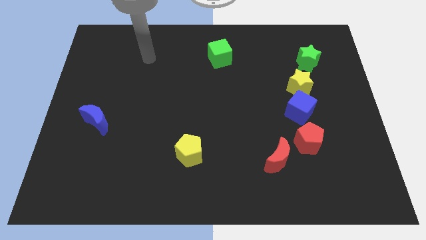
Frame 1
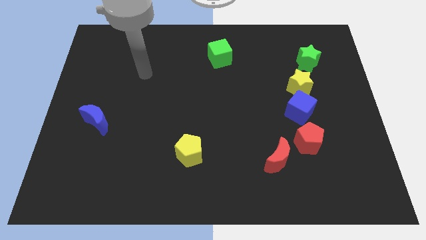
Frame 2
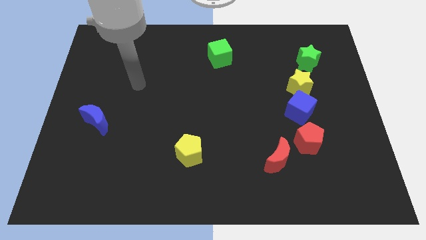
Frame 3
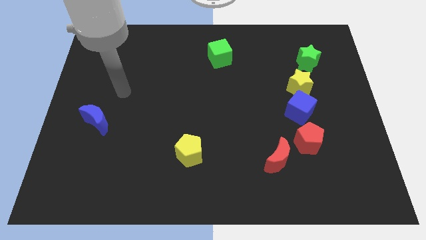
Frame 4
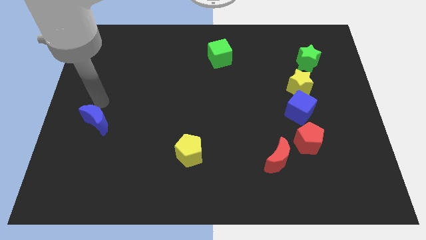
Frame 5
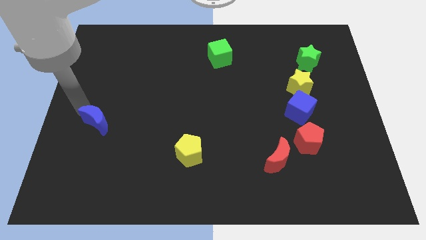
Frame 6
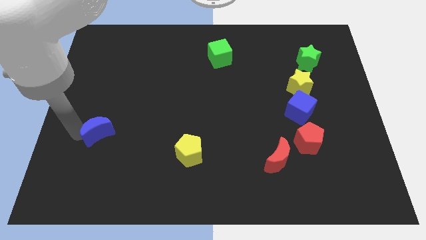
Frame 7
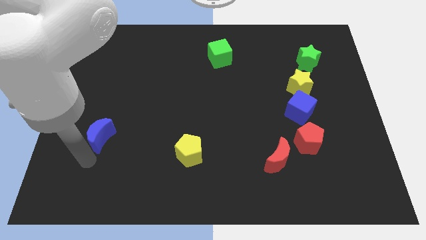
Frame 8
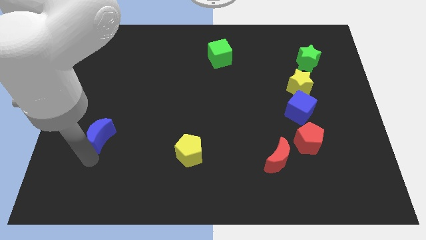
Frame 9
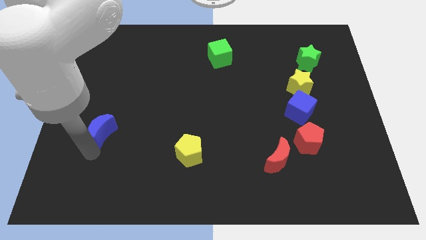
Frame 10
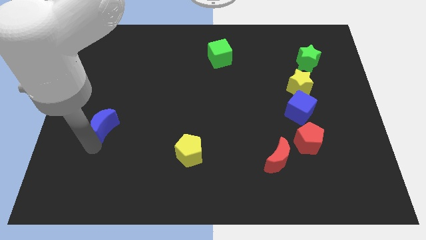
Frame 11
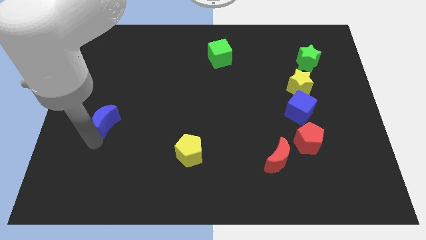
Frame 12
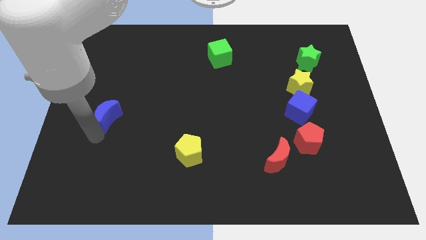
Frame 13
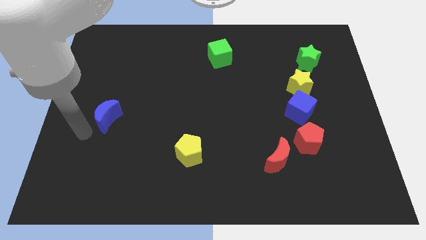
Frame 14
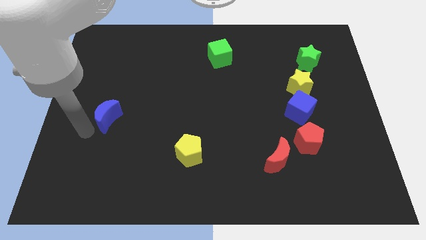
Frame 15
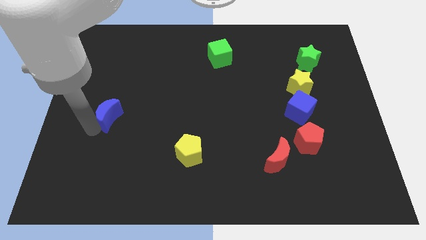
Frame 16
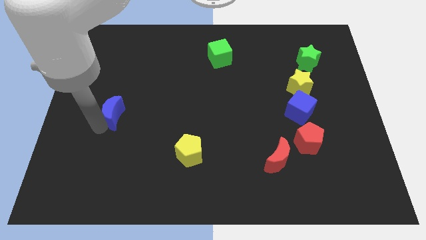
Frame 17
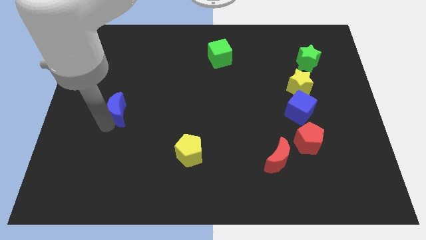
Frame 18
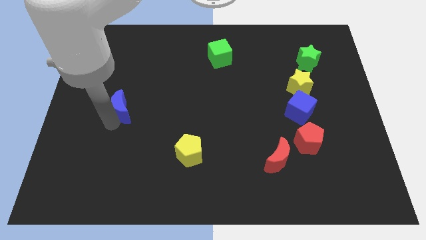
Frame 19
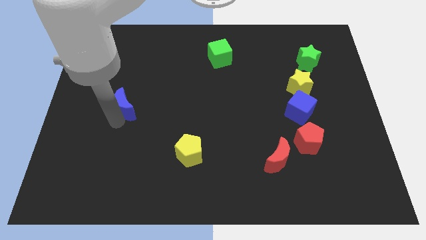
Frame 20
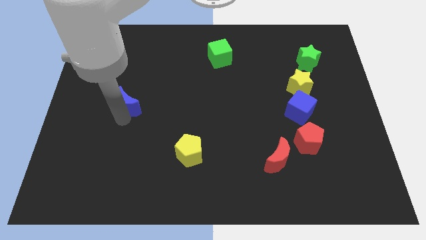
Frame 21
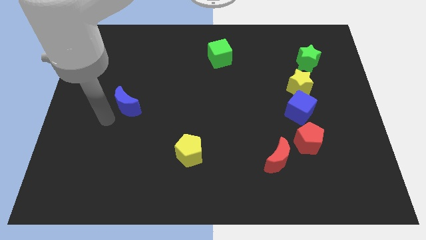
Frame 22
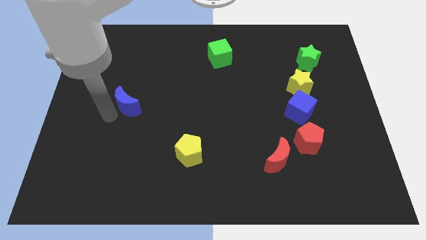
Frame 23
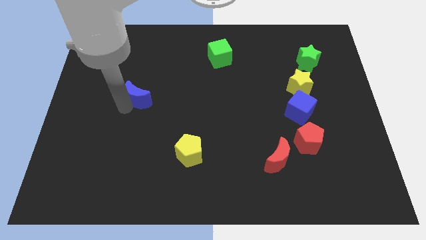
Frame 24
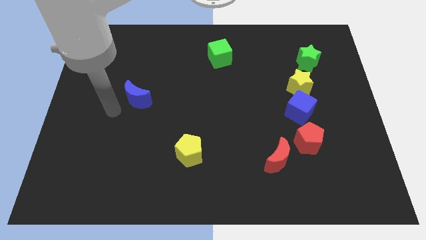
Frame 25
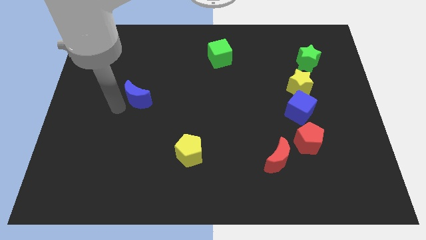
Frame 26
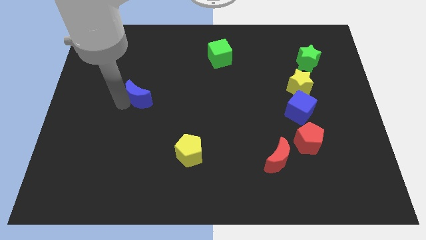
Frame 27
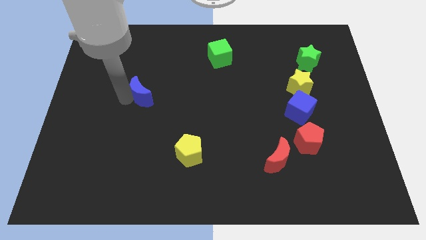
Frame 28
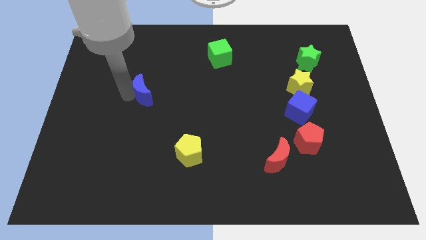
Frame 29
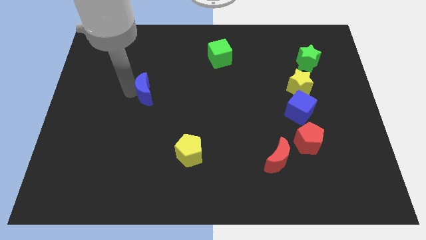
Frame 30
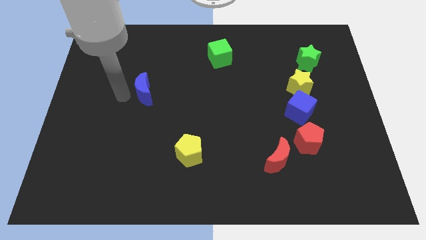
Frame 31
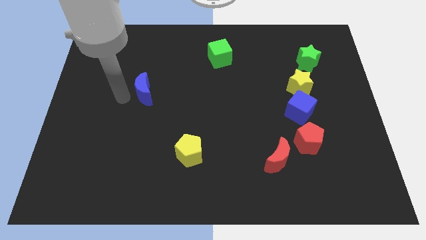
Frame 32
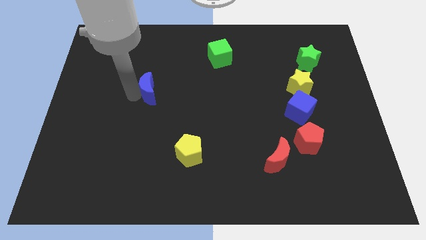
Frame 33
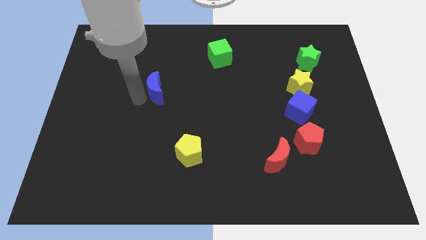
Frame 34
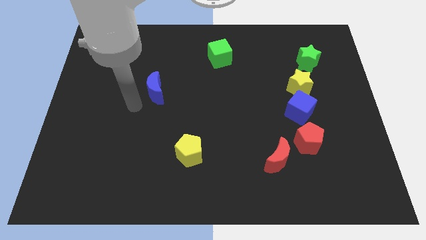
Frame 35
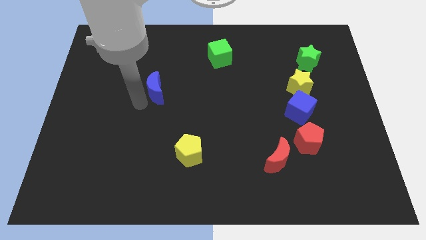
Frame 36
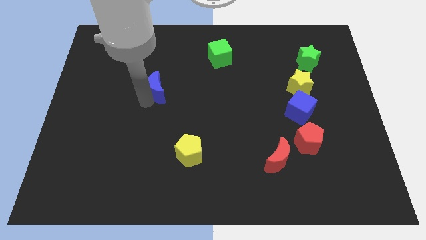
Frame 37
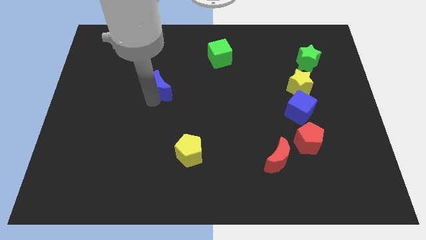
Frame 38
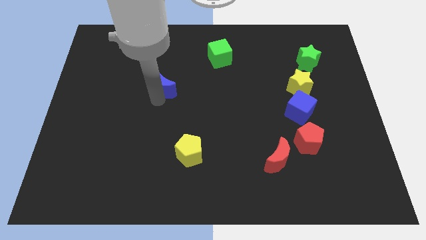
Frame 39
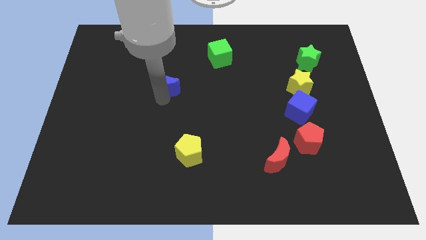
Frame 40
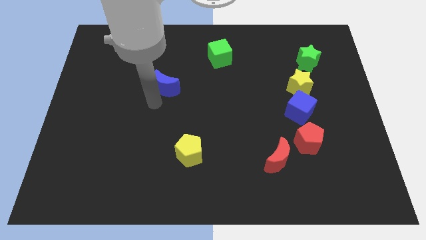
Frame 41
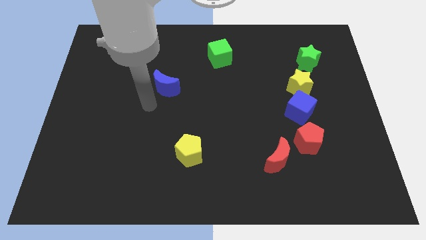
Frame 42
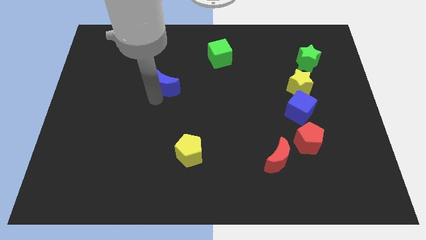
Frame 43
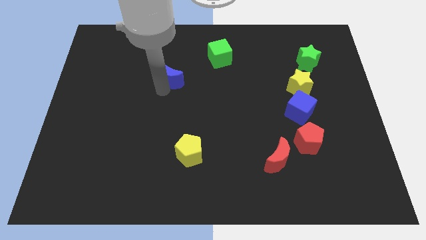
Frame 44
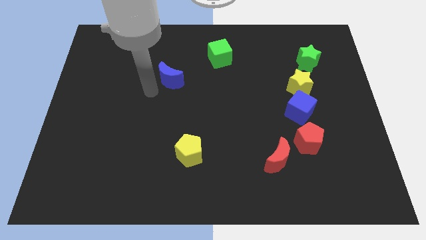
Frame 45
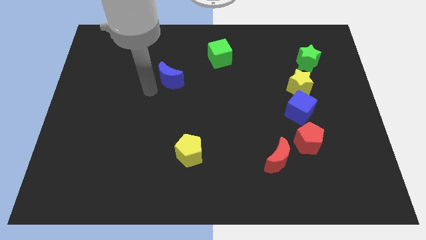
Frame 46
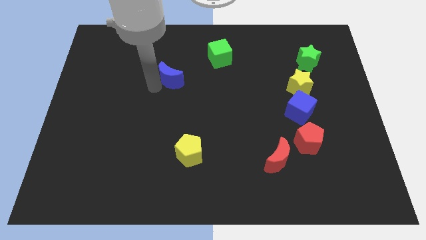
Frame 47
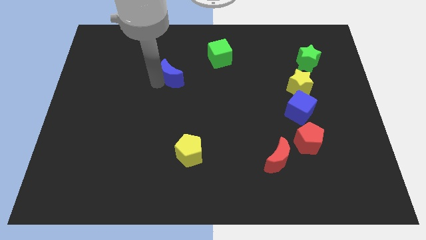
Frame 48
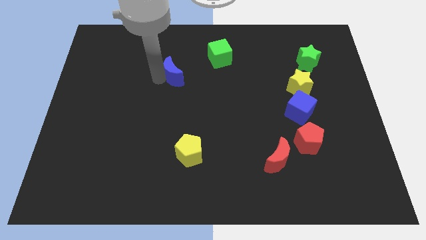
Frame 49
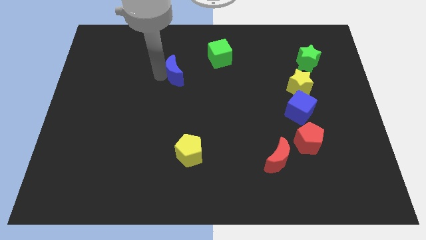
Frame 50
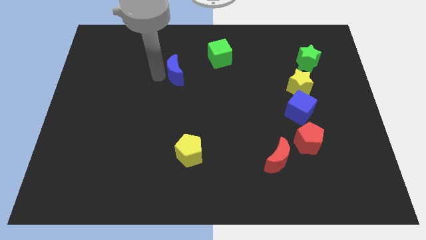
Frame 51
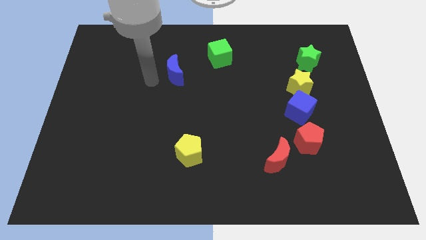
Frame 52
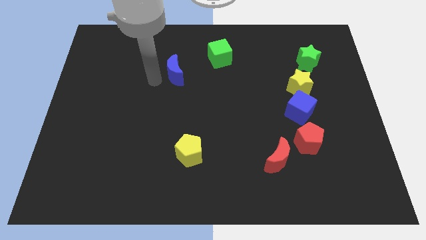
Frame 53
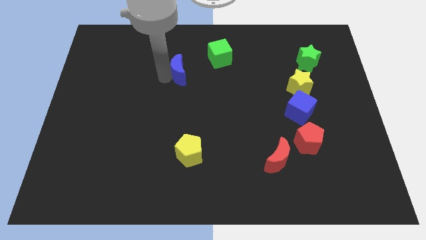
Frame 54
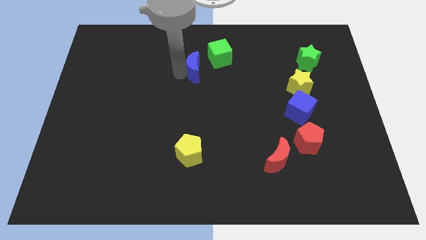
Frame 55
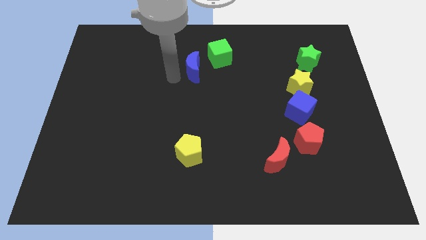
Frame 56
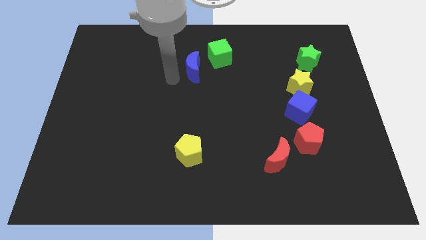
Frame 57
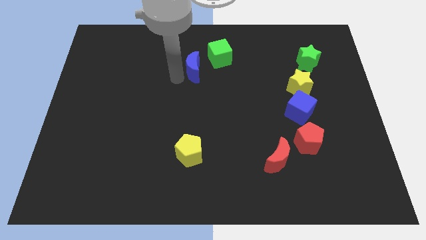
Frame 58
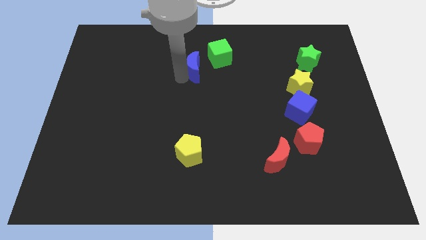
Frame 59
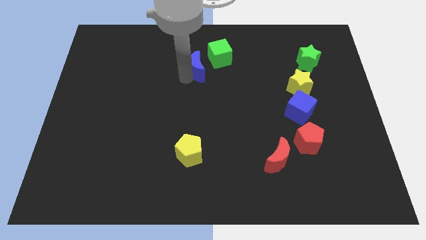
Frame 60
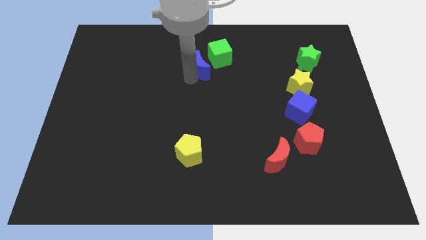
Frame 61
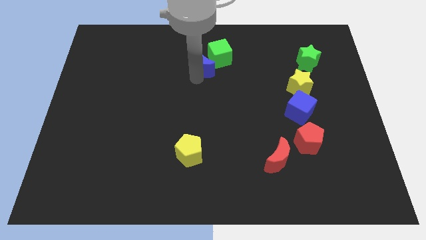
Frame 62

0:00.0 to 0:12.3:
push the blue moon next to the green cube
